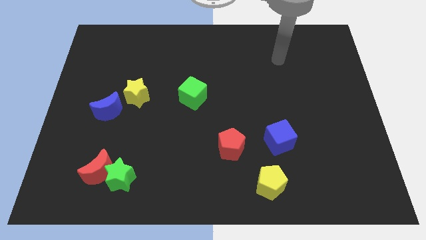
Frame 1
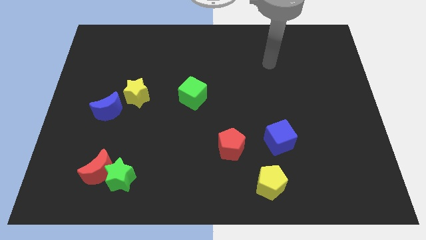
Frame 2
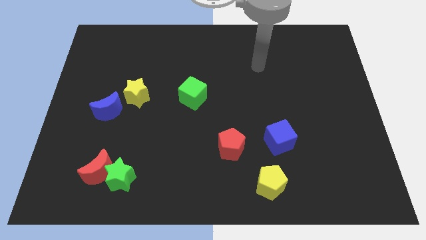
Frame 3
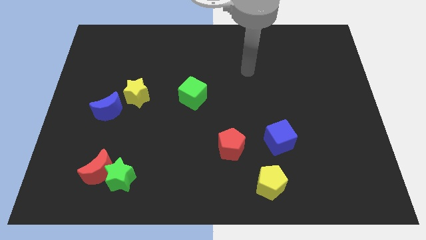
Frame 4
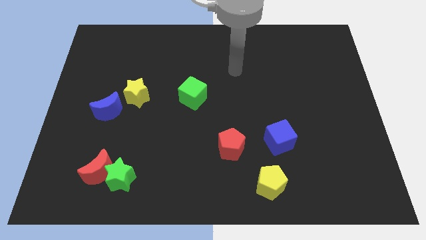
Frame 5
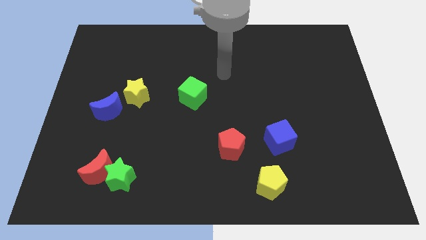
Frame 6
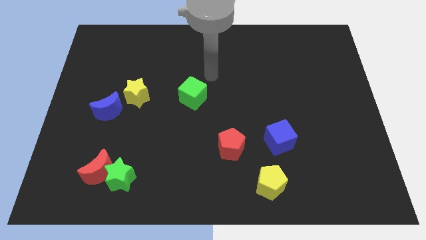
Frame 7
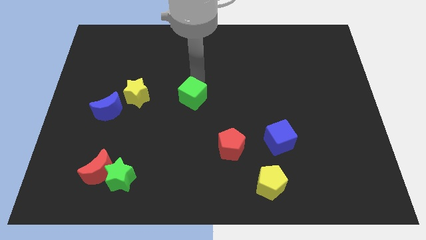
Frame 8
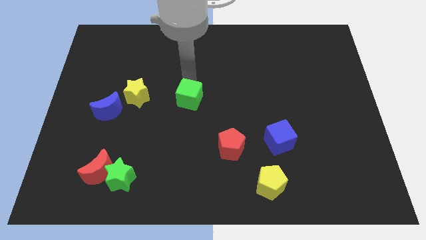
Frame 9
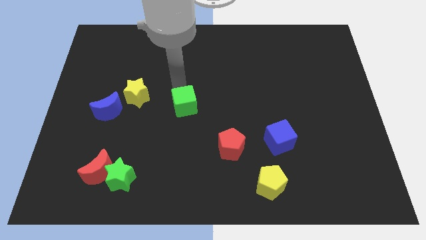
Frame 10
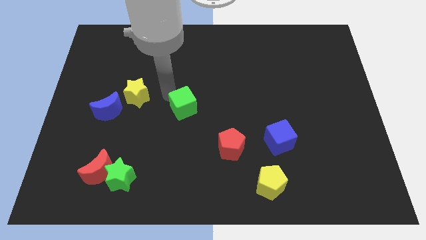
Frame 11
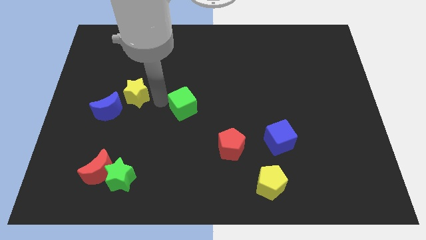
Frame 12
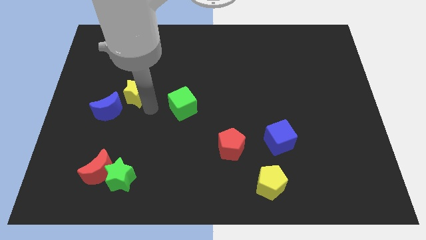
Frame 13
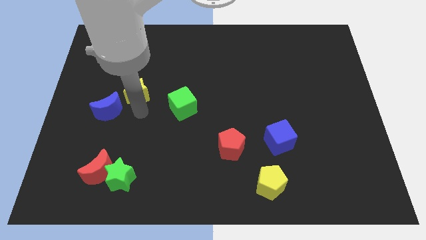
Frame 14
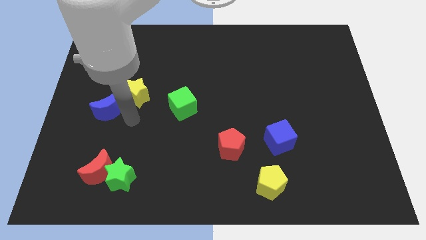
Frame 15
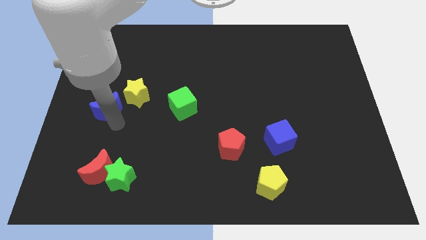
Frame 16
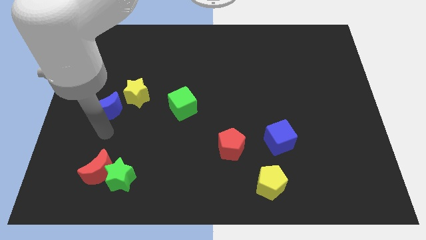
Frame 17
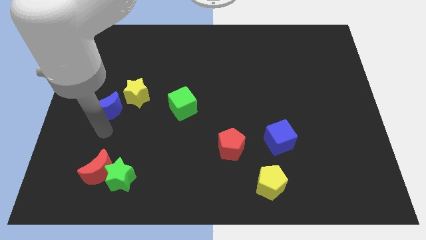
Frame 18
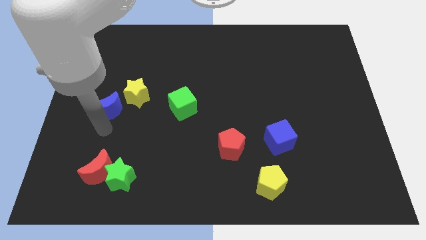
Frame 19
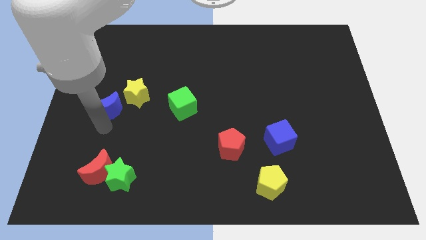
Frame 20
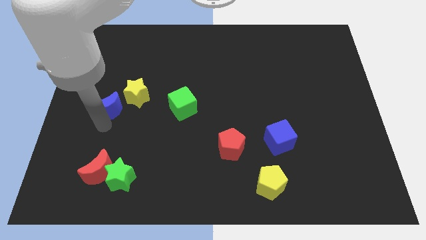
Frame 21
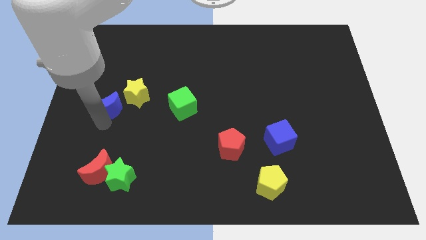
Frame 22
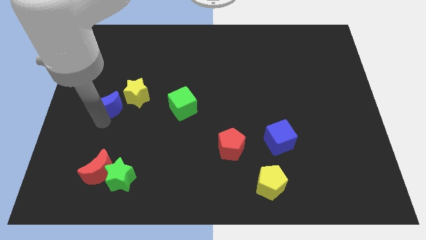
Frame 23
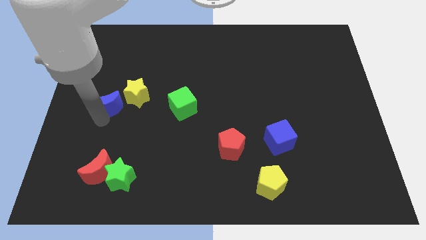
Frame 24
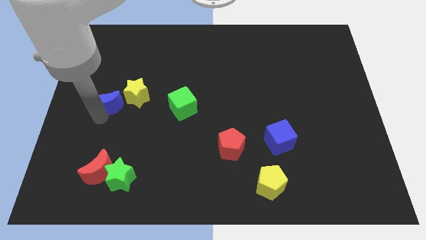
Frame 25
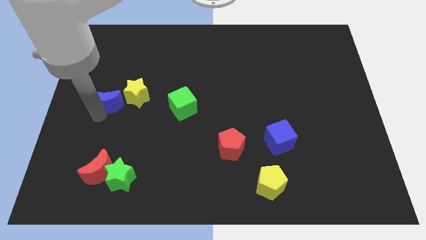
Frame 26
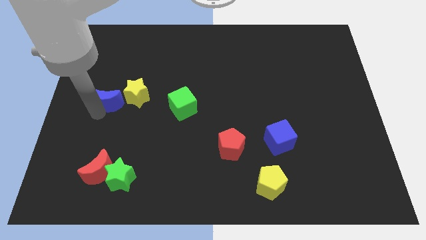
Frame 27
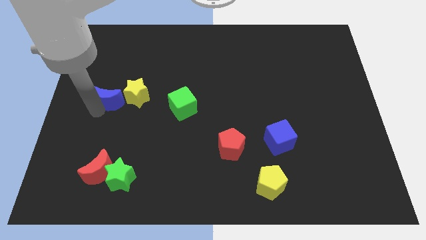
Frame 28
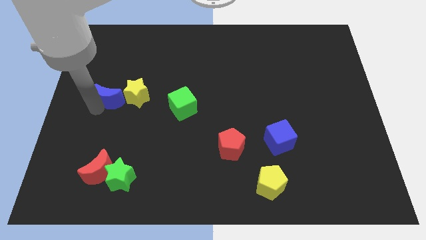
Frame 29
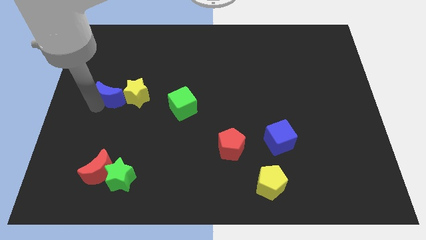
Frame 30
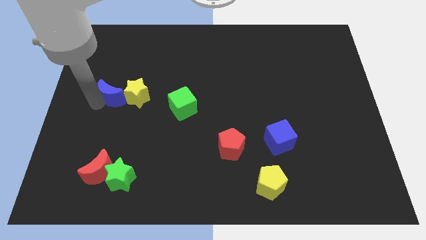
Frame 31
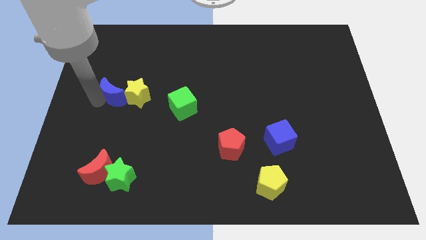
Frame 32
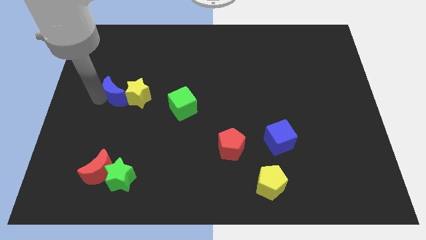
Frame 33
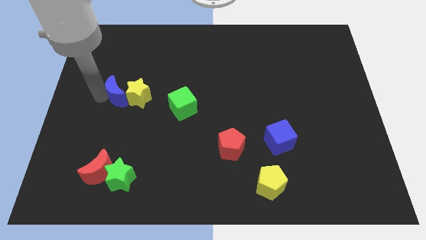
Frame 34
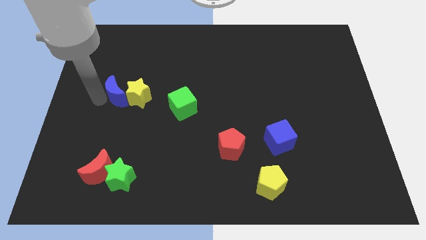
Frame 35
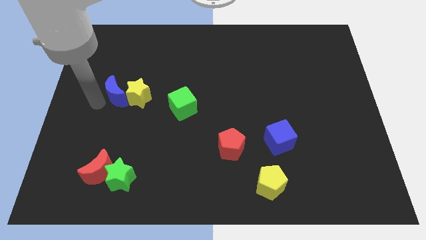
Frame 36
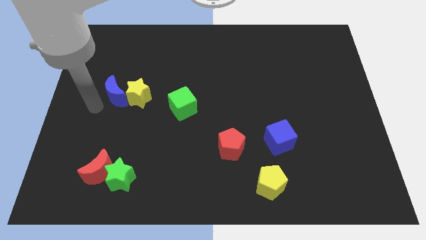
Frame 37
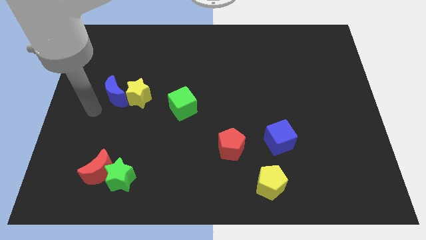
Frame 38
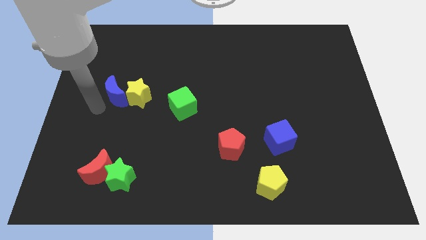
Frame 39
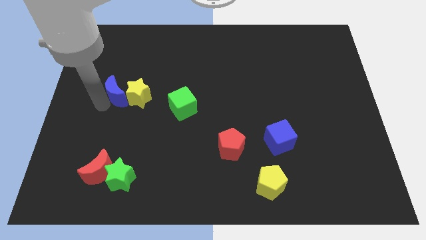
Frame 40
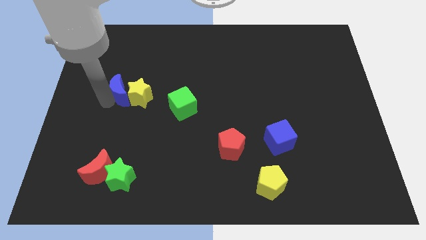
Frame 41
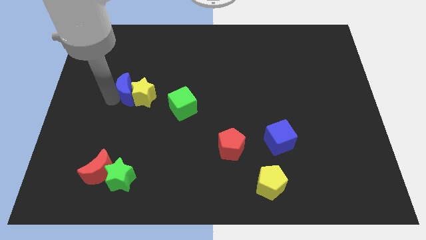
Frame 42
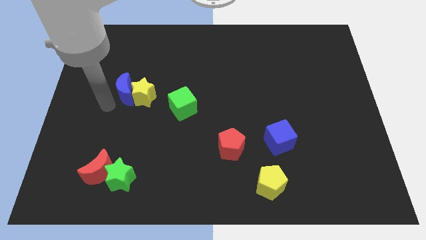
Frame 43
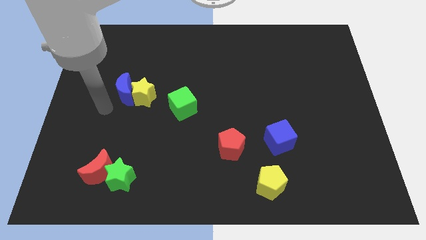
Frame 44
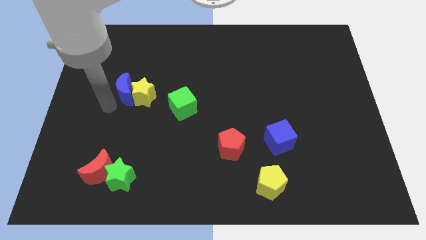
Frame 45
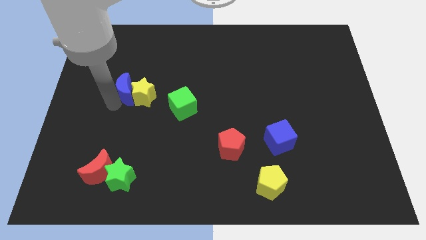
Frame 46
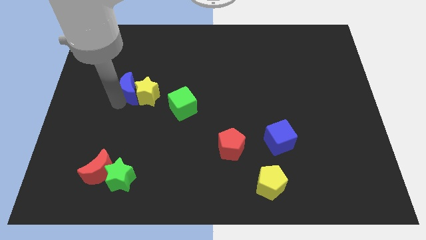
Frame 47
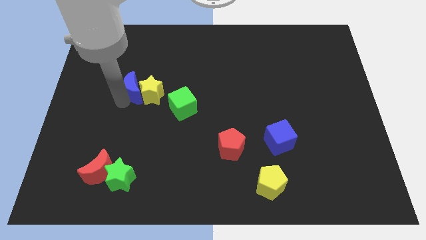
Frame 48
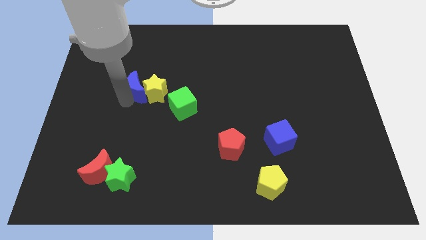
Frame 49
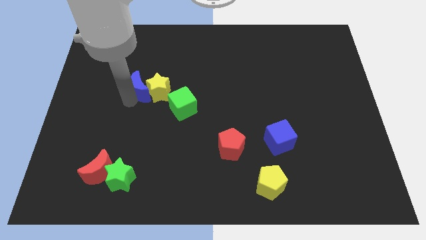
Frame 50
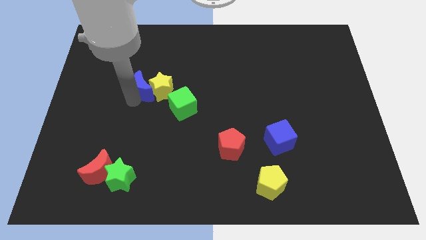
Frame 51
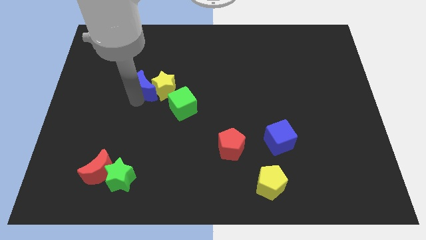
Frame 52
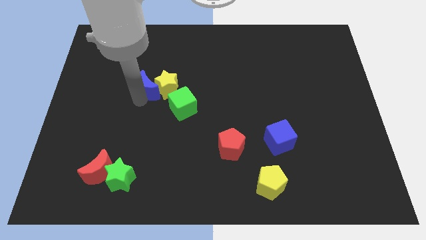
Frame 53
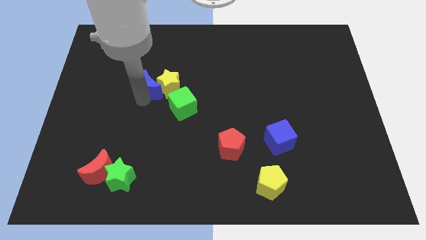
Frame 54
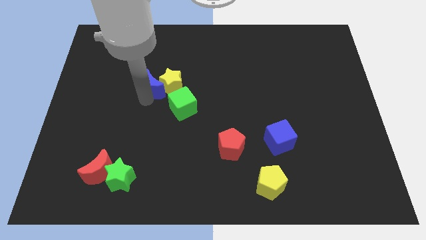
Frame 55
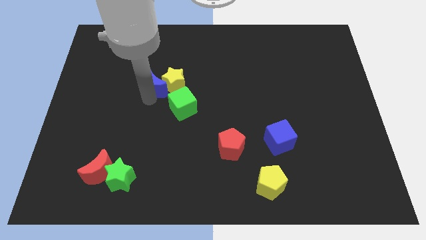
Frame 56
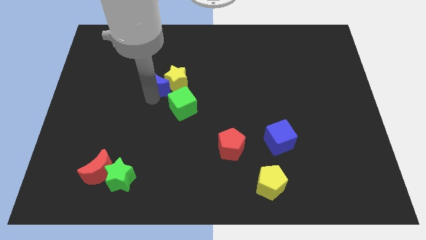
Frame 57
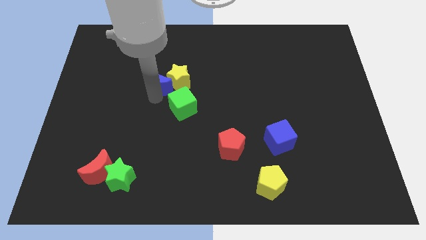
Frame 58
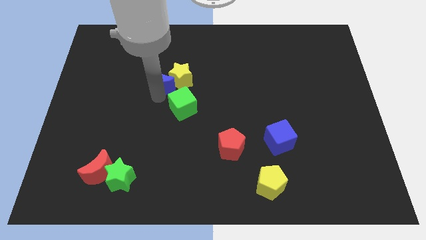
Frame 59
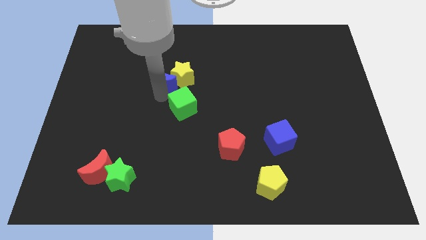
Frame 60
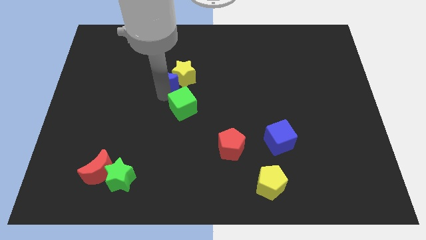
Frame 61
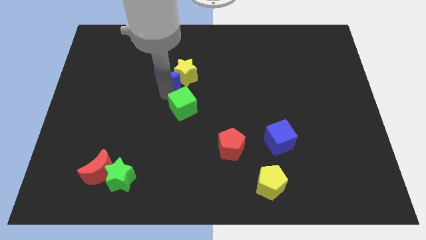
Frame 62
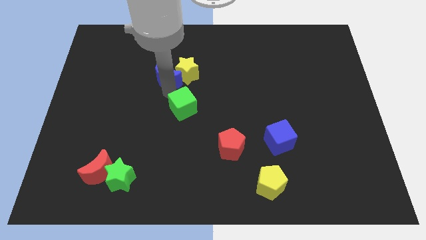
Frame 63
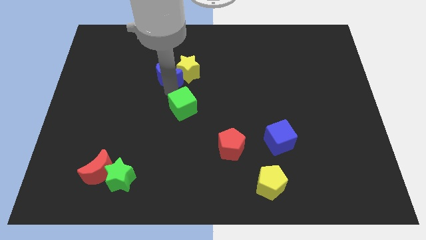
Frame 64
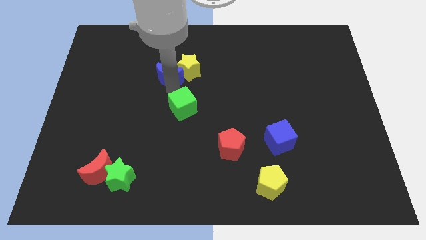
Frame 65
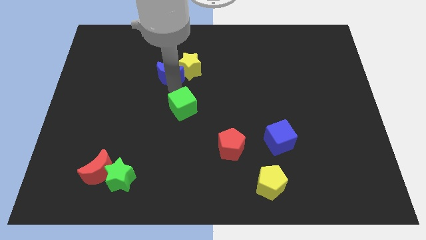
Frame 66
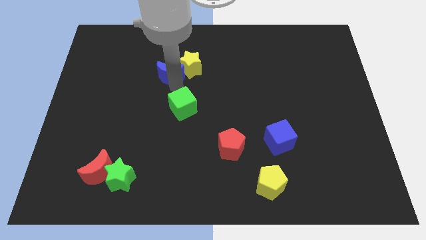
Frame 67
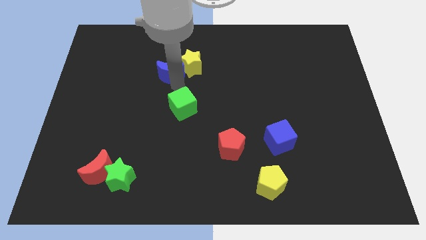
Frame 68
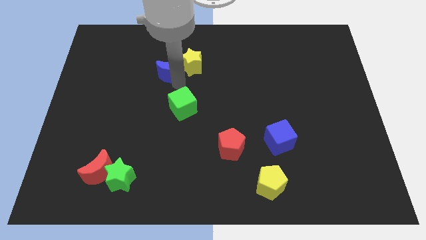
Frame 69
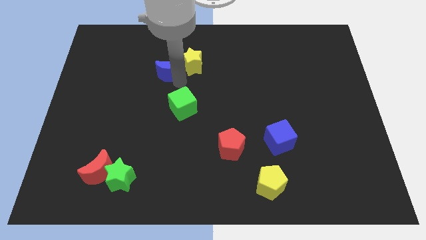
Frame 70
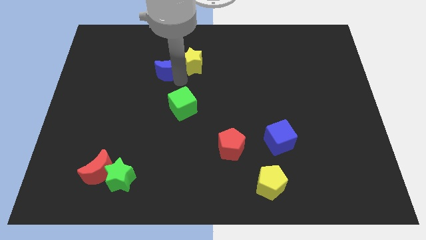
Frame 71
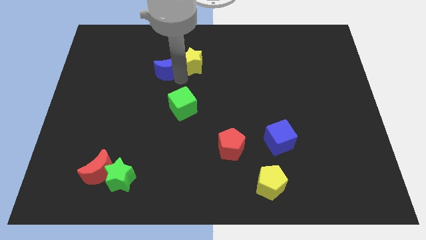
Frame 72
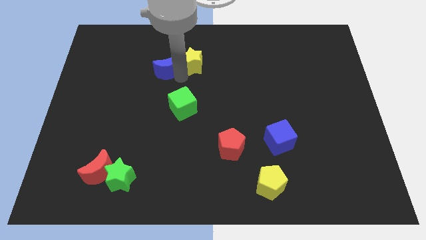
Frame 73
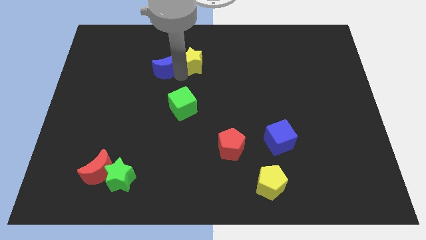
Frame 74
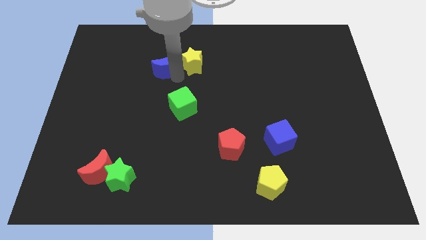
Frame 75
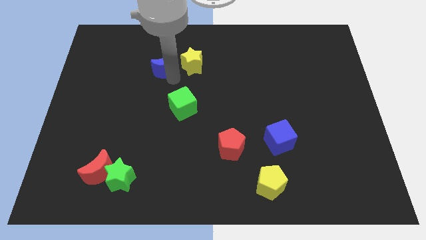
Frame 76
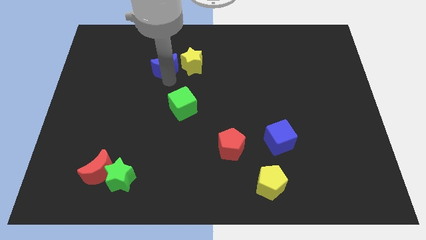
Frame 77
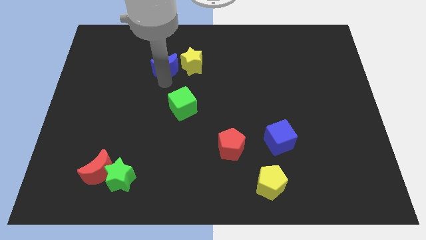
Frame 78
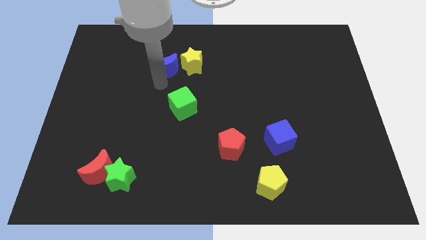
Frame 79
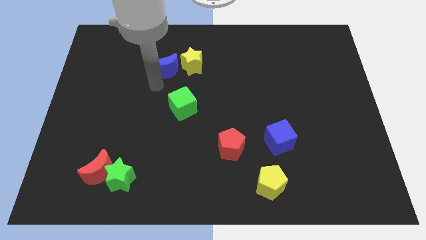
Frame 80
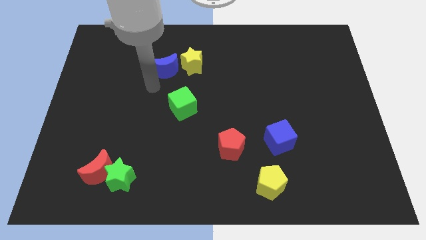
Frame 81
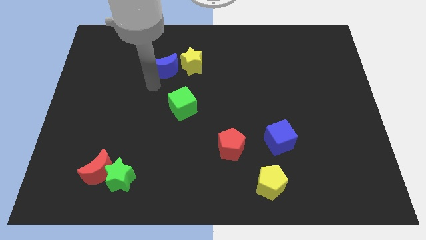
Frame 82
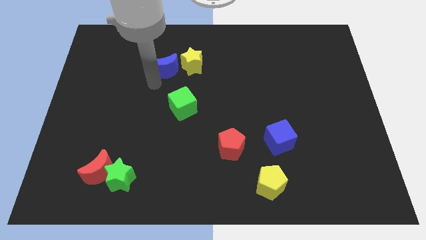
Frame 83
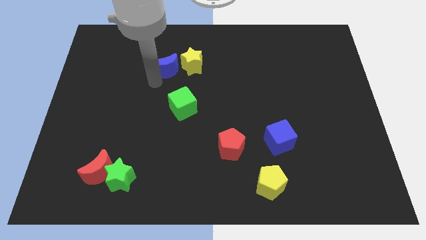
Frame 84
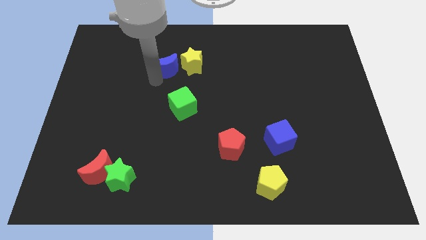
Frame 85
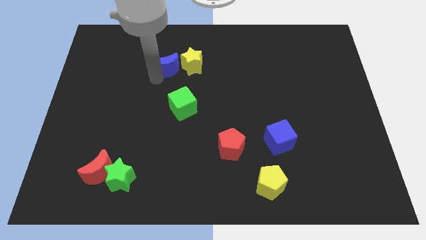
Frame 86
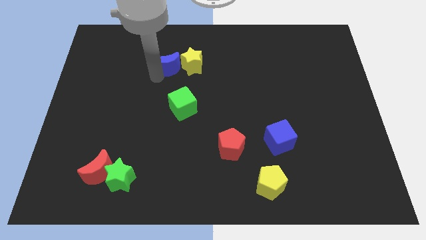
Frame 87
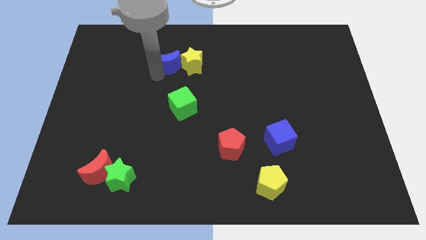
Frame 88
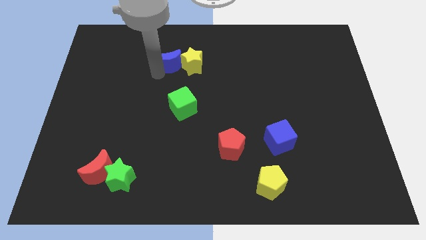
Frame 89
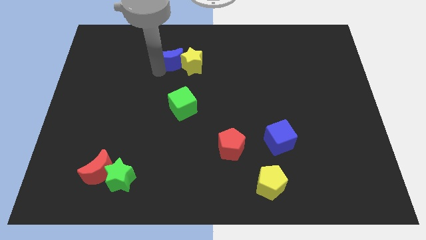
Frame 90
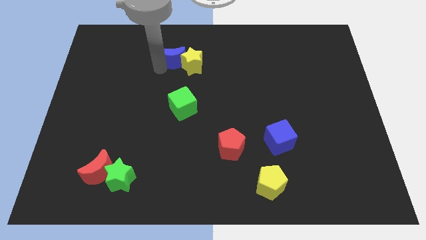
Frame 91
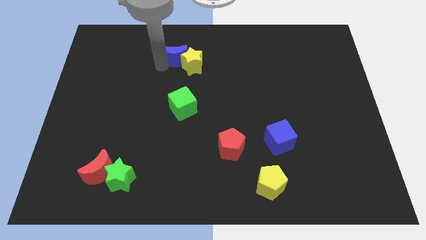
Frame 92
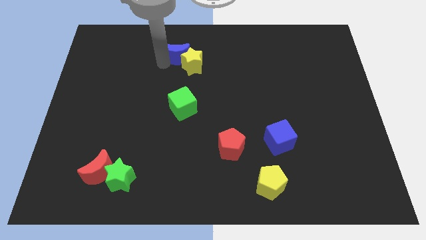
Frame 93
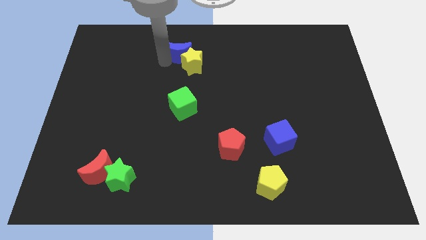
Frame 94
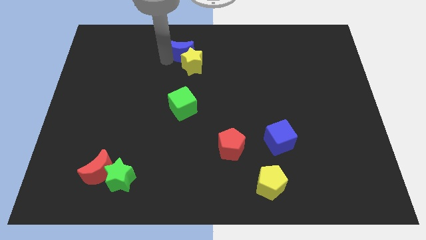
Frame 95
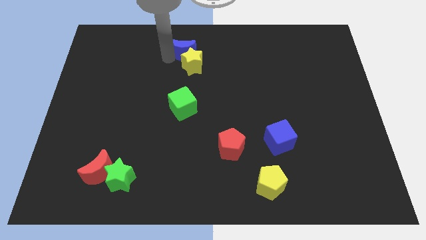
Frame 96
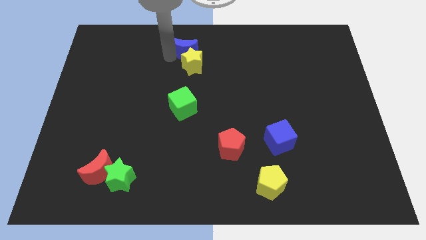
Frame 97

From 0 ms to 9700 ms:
move the blue moon to the towards your base
